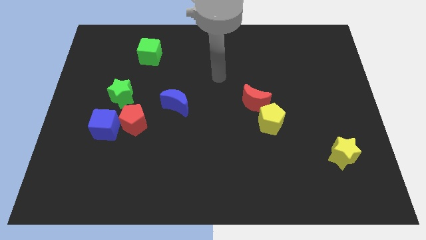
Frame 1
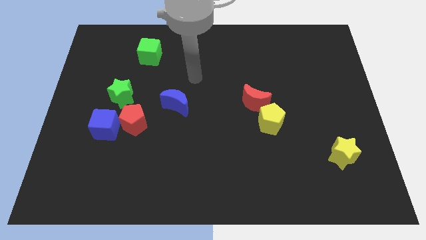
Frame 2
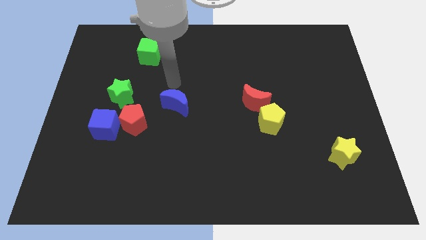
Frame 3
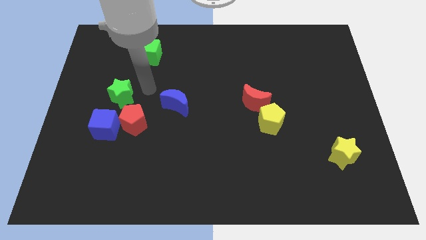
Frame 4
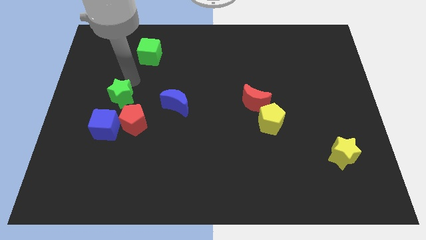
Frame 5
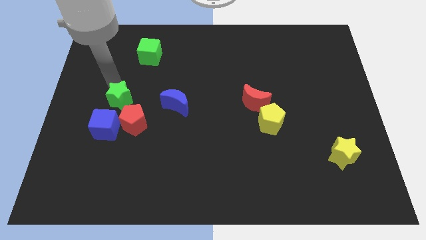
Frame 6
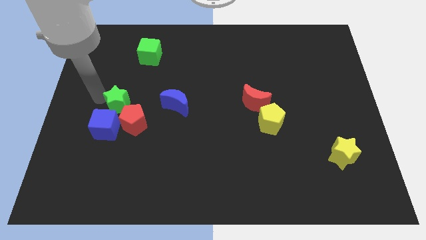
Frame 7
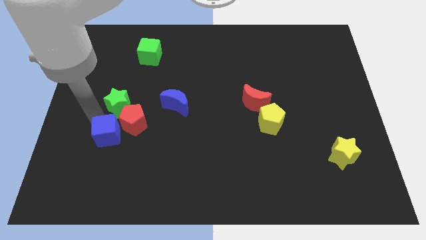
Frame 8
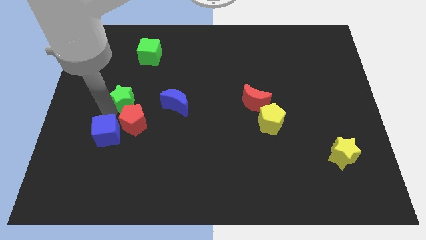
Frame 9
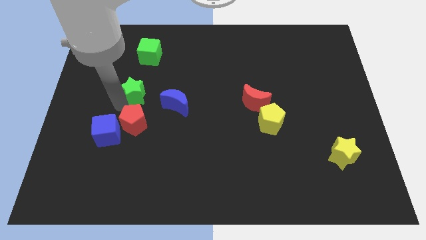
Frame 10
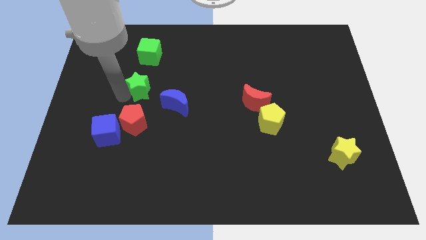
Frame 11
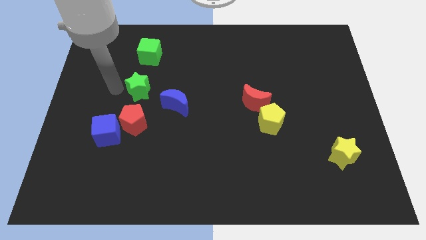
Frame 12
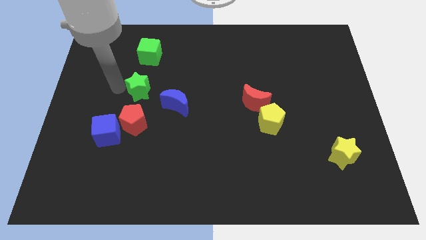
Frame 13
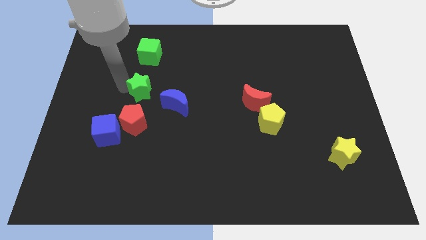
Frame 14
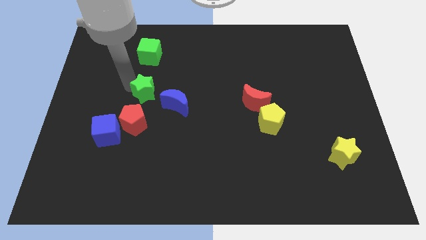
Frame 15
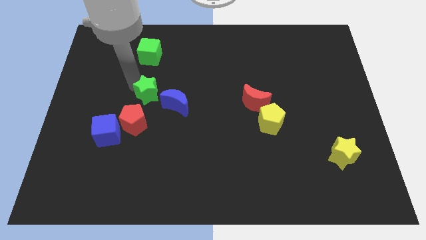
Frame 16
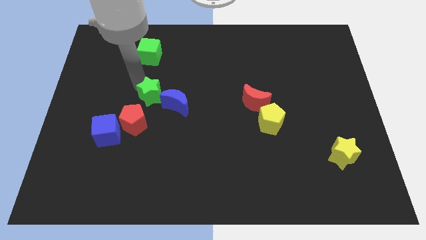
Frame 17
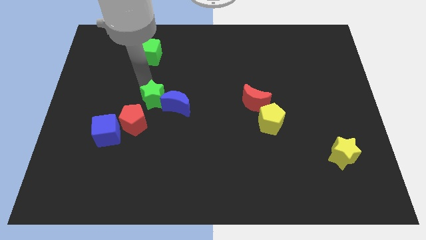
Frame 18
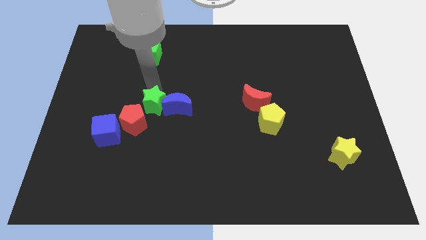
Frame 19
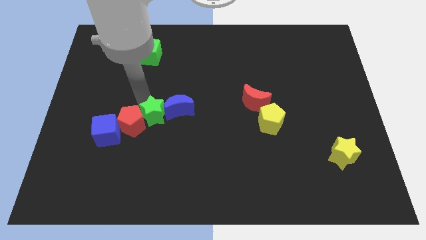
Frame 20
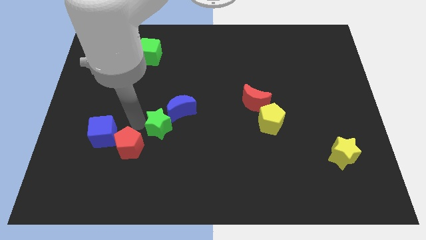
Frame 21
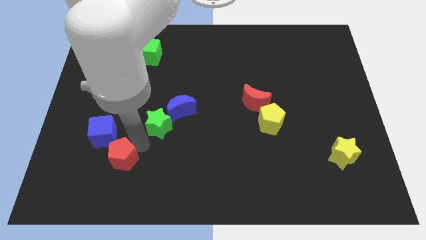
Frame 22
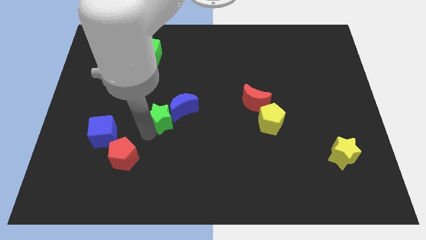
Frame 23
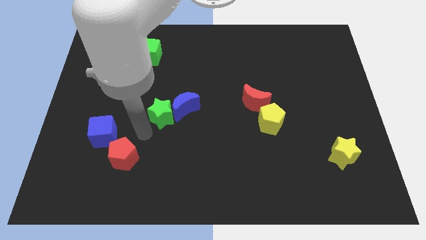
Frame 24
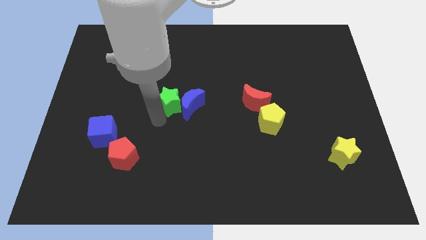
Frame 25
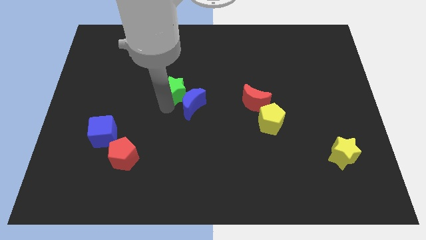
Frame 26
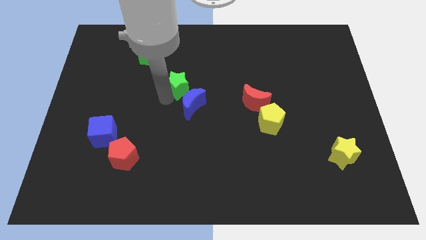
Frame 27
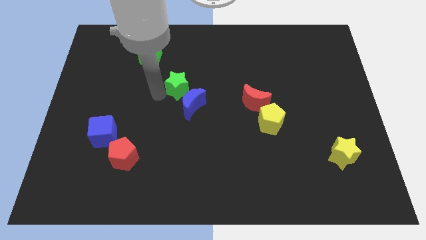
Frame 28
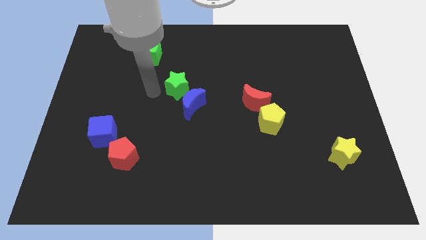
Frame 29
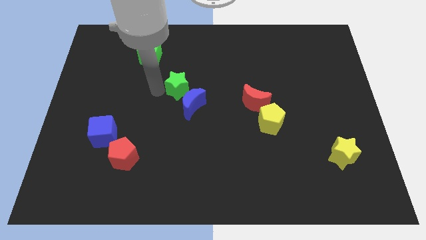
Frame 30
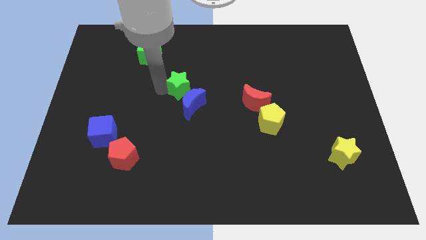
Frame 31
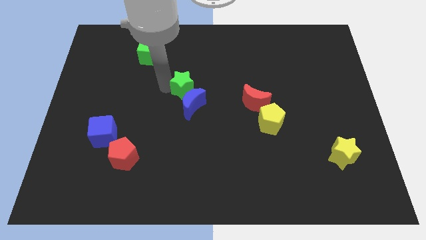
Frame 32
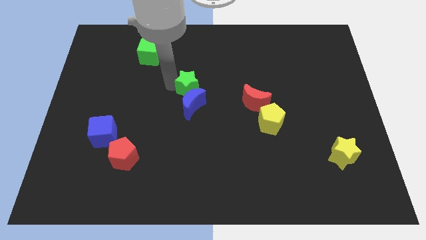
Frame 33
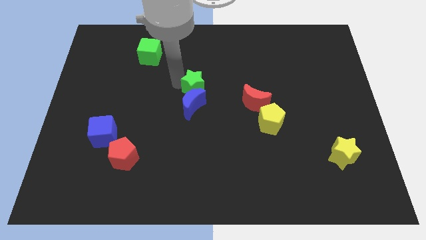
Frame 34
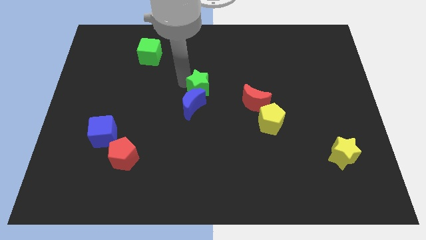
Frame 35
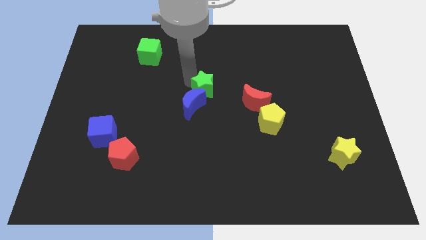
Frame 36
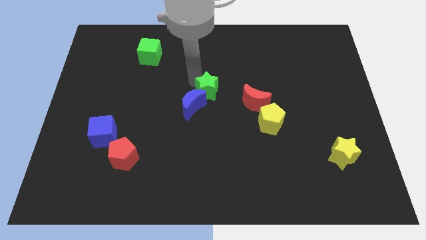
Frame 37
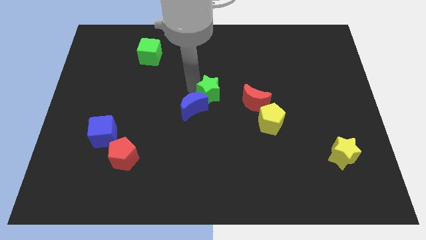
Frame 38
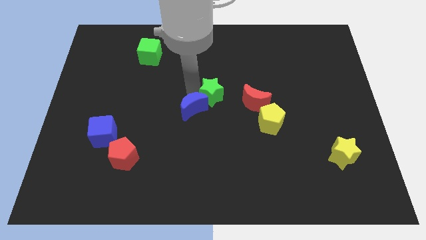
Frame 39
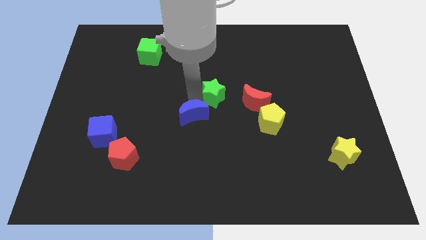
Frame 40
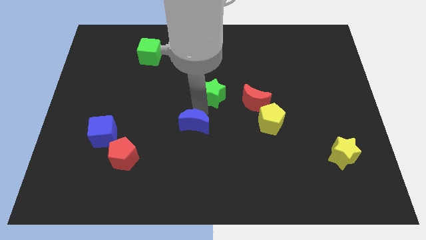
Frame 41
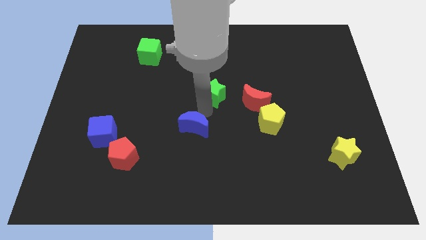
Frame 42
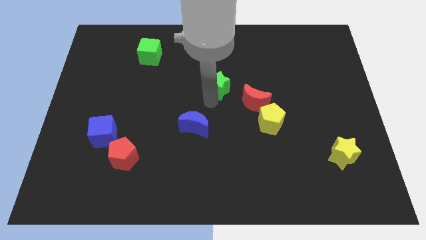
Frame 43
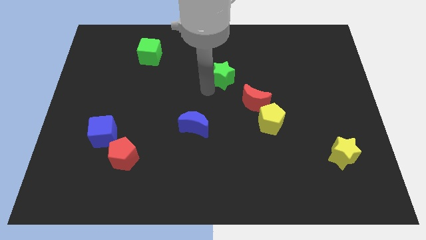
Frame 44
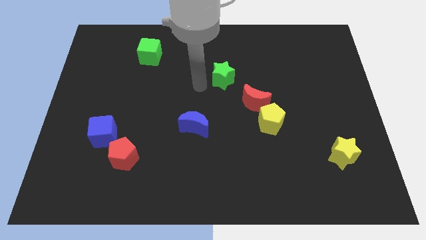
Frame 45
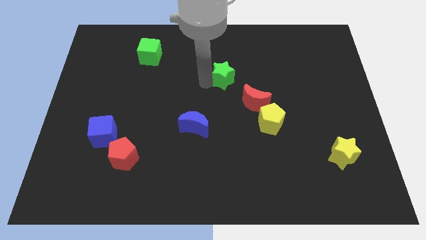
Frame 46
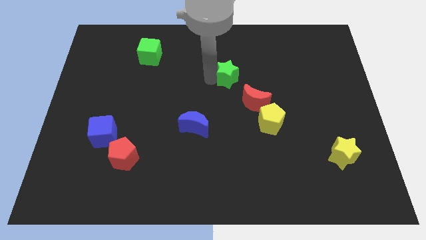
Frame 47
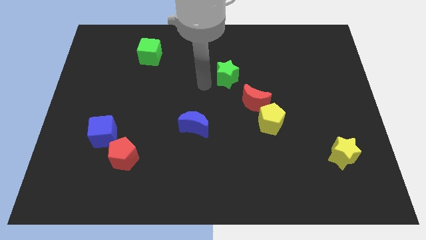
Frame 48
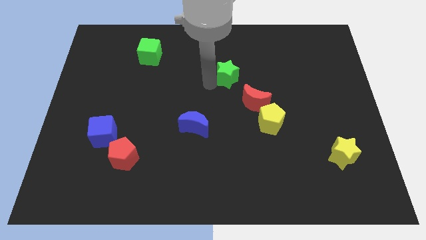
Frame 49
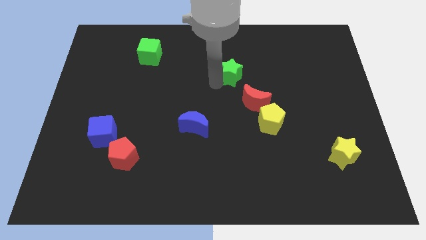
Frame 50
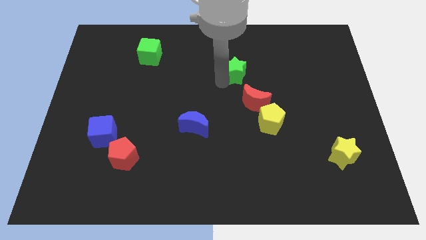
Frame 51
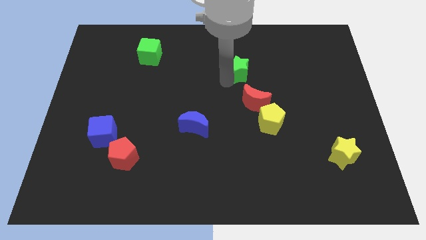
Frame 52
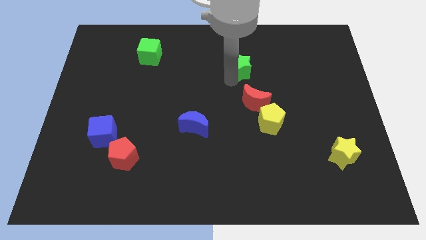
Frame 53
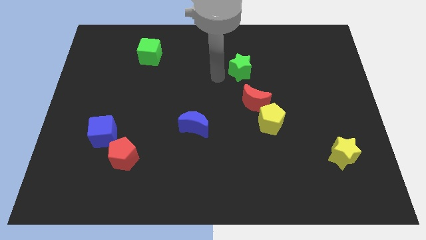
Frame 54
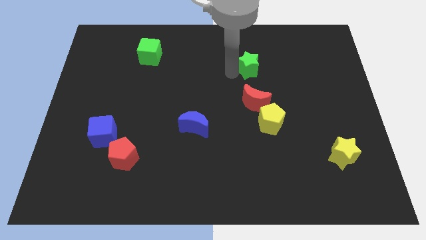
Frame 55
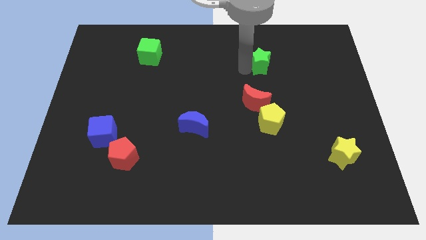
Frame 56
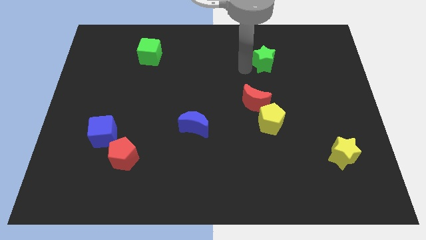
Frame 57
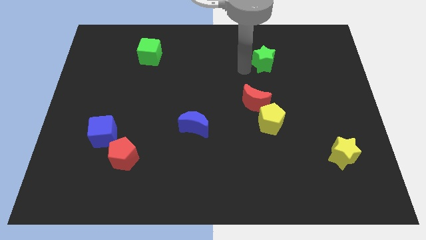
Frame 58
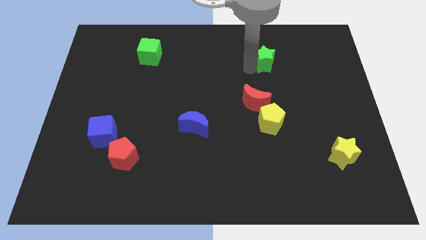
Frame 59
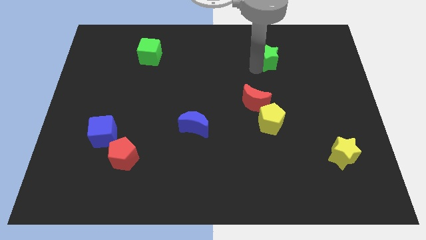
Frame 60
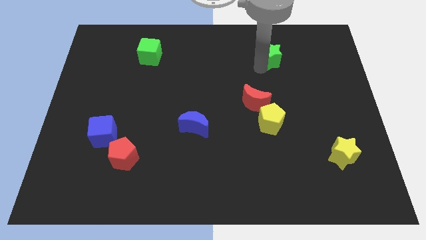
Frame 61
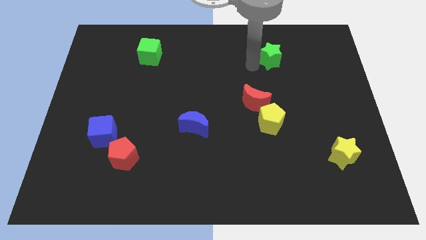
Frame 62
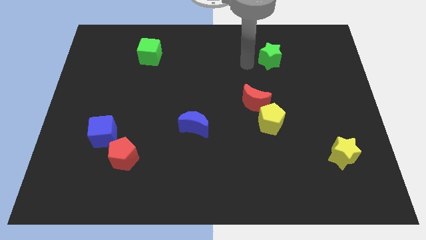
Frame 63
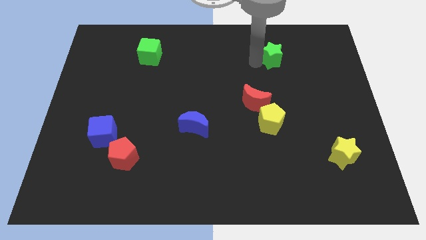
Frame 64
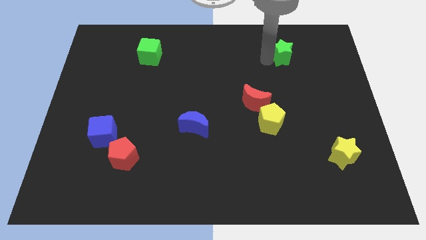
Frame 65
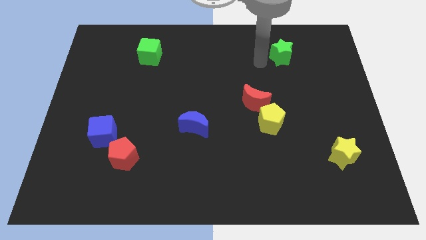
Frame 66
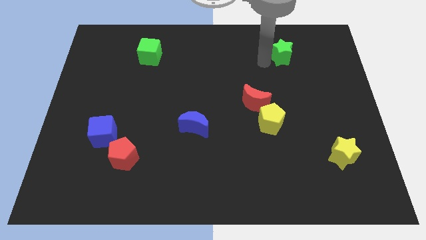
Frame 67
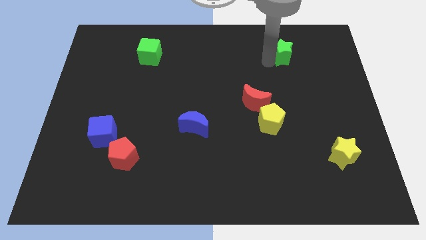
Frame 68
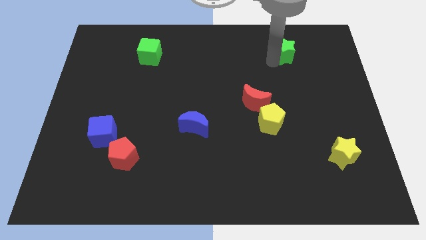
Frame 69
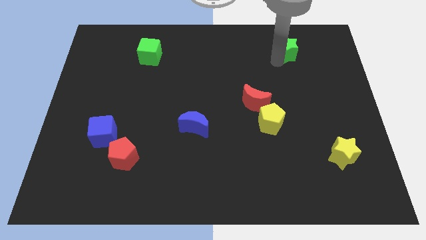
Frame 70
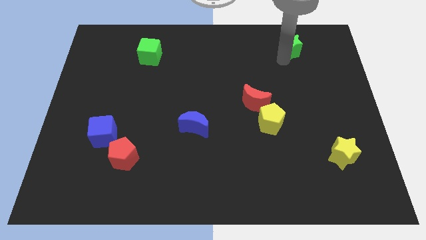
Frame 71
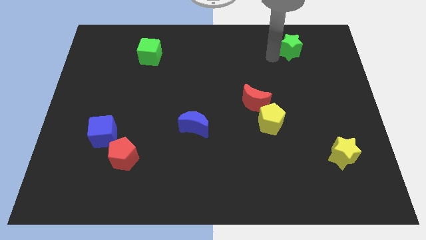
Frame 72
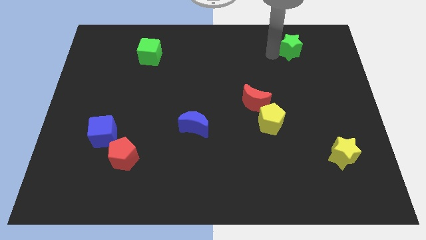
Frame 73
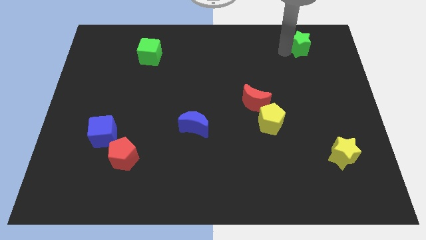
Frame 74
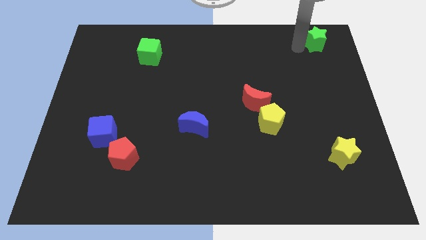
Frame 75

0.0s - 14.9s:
put the green star to the top right corner
